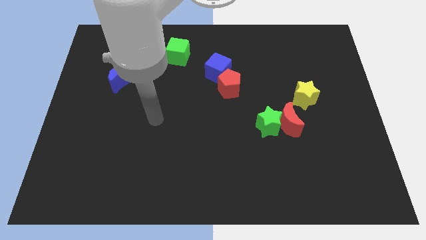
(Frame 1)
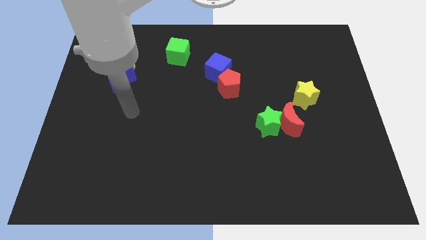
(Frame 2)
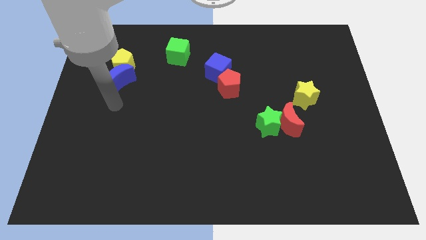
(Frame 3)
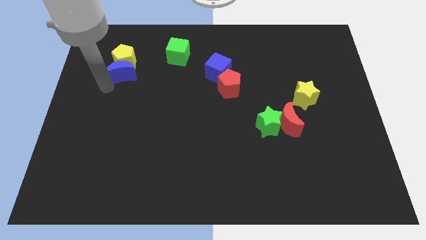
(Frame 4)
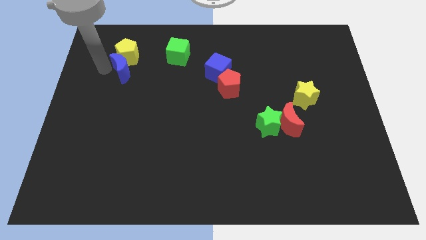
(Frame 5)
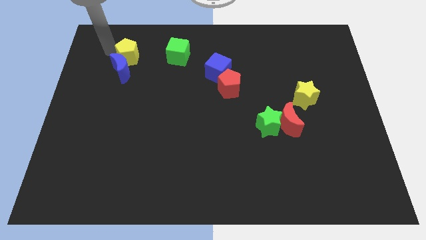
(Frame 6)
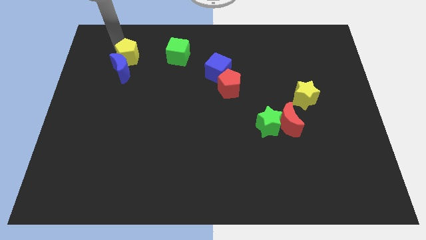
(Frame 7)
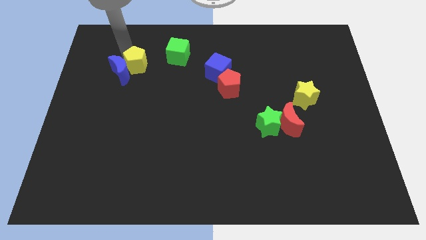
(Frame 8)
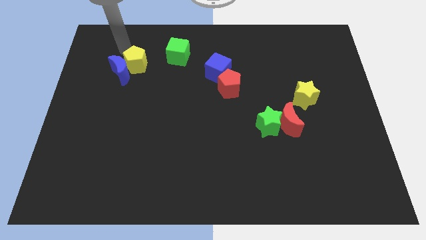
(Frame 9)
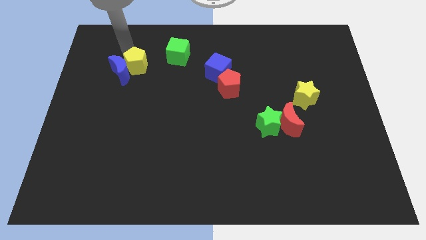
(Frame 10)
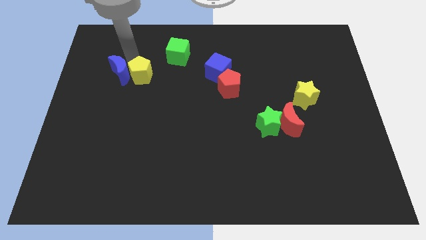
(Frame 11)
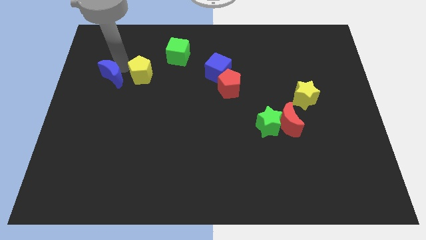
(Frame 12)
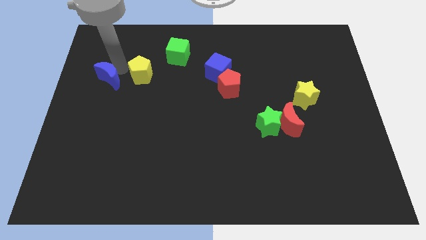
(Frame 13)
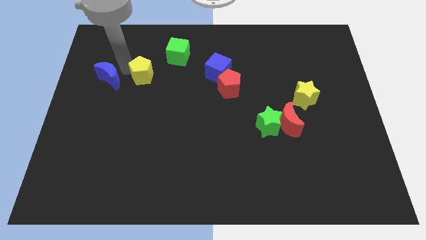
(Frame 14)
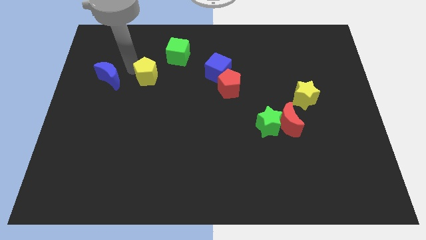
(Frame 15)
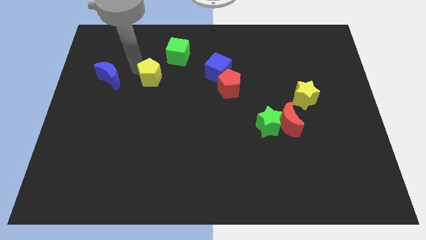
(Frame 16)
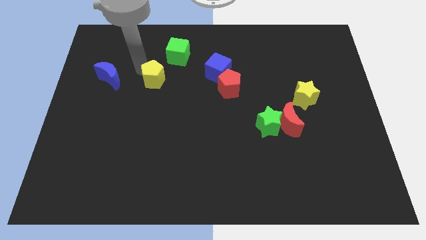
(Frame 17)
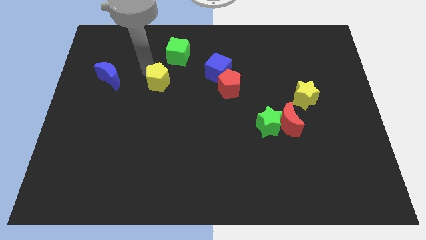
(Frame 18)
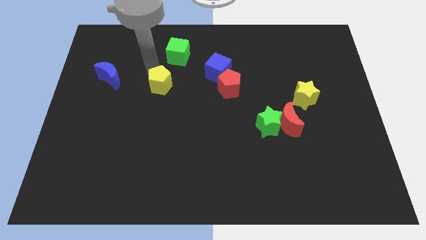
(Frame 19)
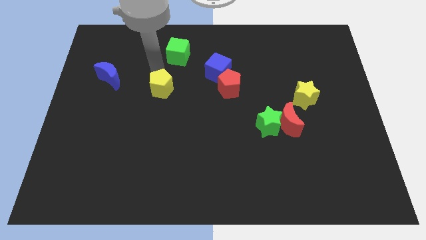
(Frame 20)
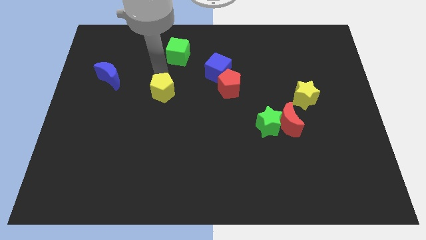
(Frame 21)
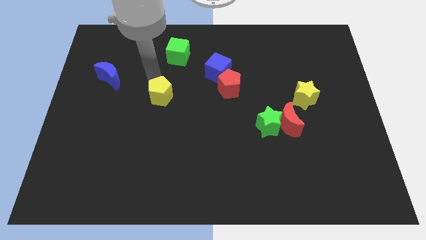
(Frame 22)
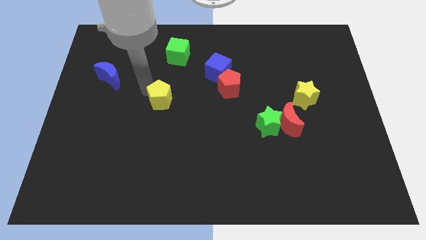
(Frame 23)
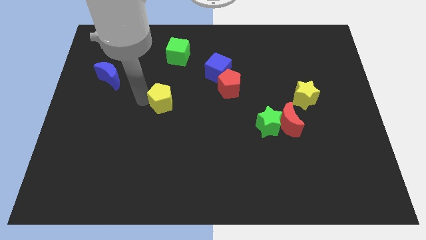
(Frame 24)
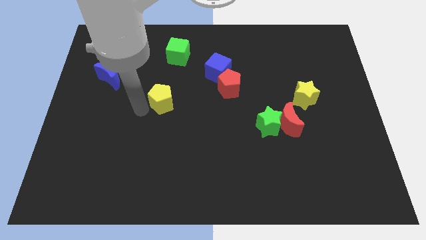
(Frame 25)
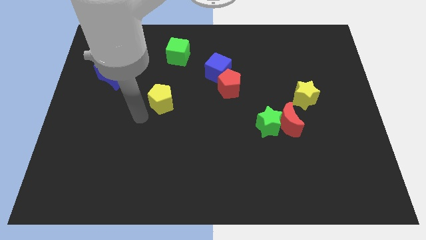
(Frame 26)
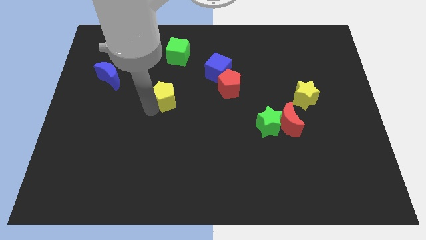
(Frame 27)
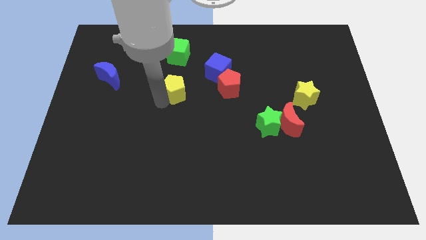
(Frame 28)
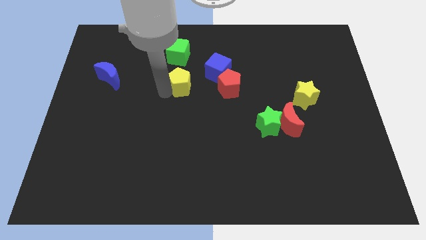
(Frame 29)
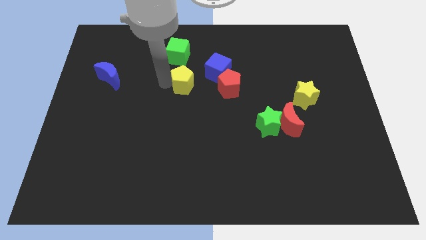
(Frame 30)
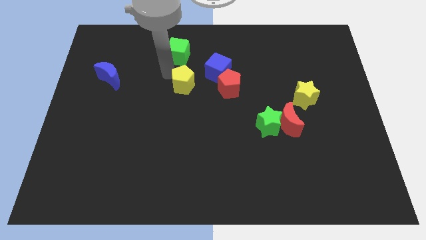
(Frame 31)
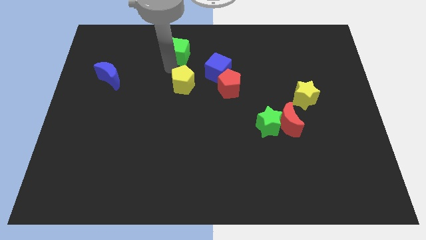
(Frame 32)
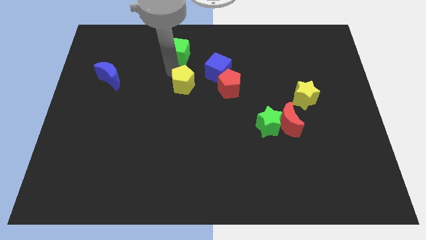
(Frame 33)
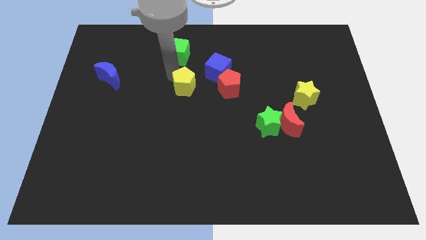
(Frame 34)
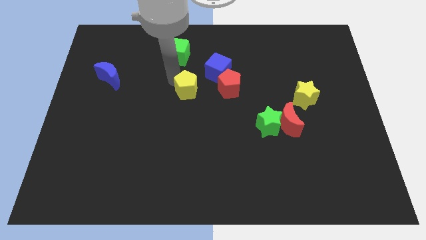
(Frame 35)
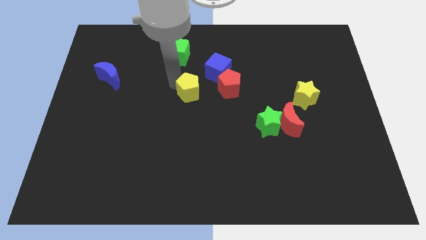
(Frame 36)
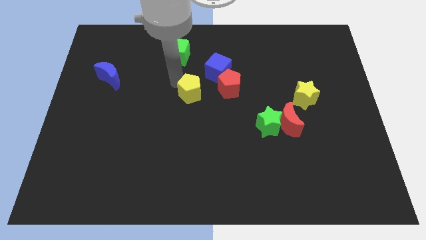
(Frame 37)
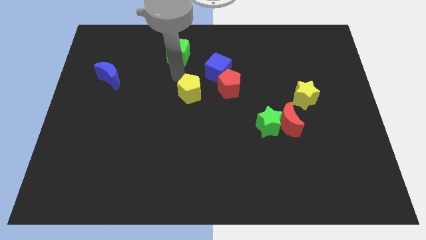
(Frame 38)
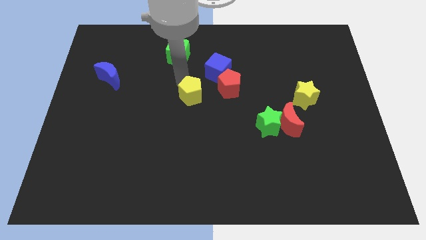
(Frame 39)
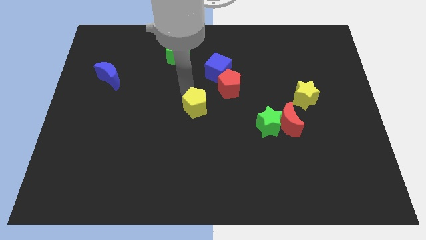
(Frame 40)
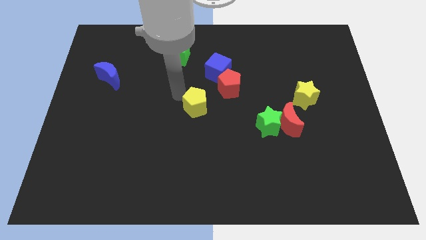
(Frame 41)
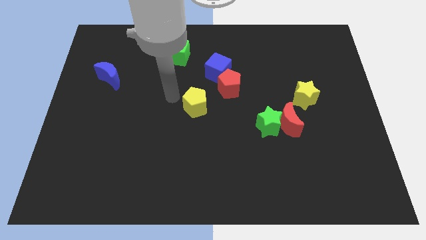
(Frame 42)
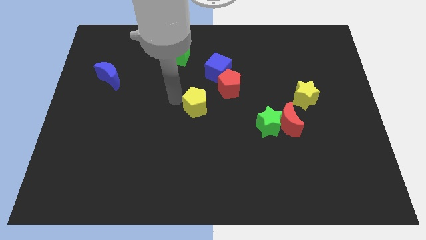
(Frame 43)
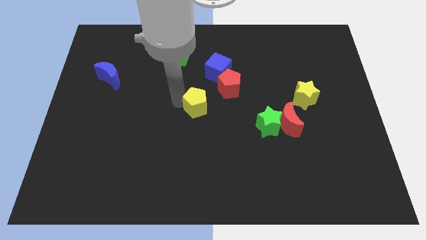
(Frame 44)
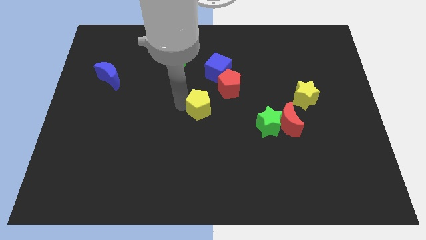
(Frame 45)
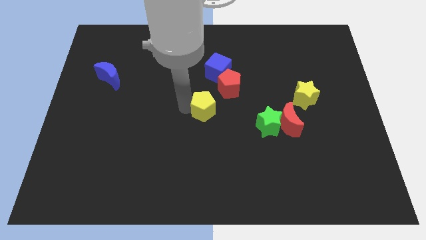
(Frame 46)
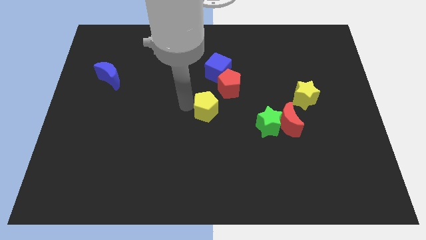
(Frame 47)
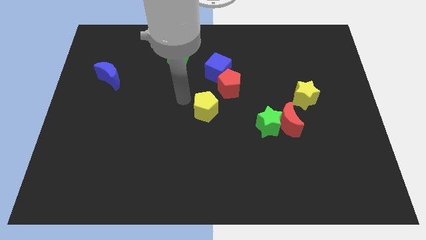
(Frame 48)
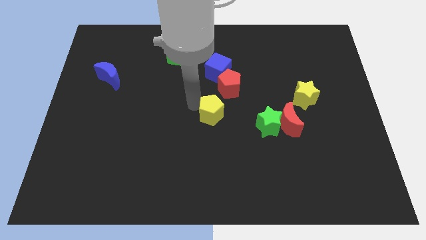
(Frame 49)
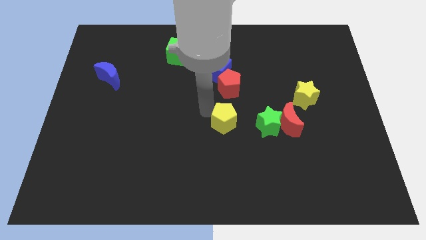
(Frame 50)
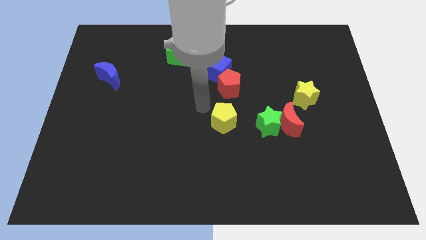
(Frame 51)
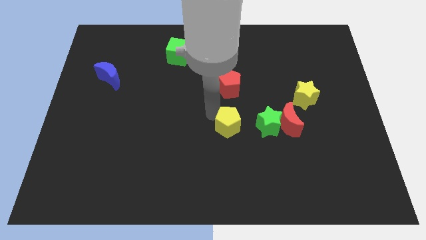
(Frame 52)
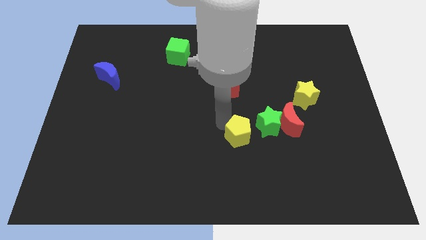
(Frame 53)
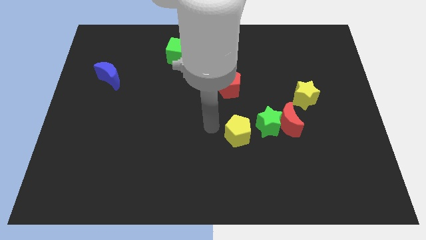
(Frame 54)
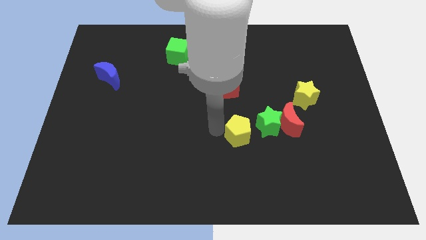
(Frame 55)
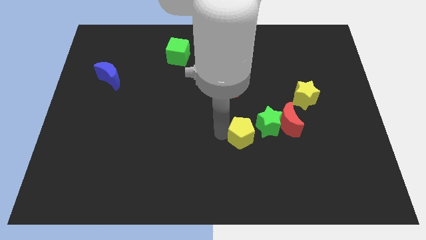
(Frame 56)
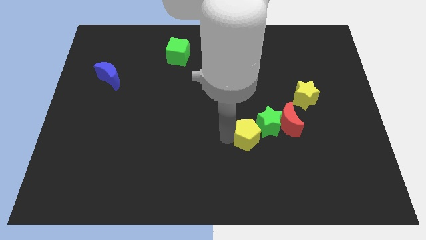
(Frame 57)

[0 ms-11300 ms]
push the yellow pentagon to the bottom left of the red moon
